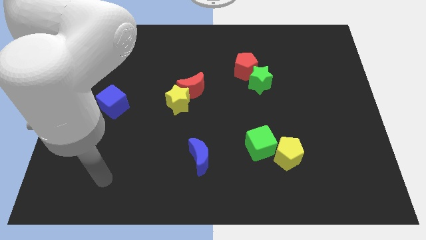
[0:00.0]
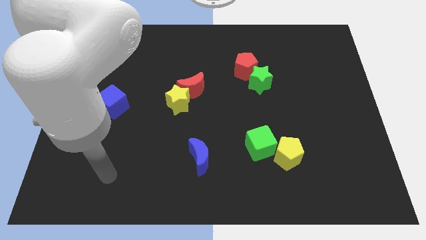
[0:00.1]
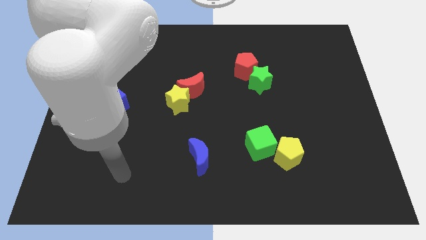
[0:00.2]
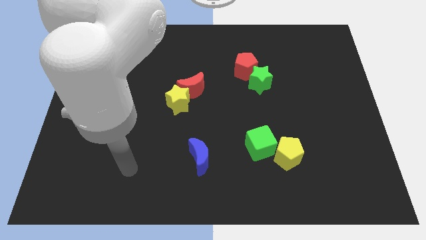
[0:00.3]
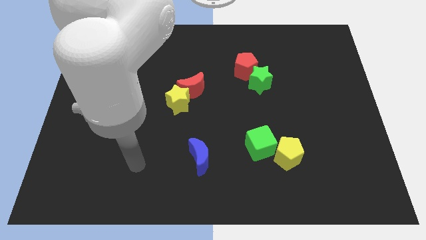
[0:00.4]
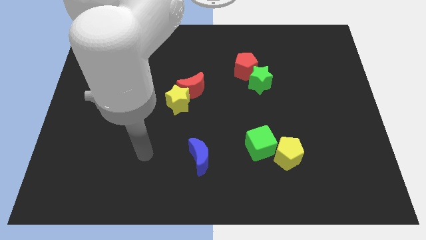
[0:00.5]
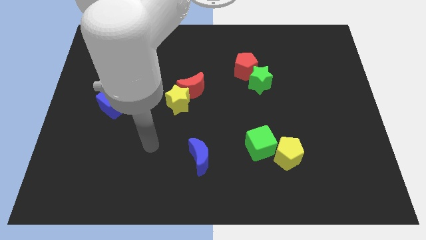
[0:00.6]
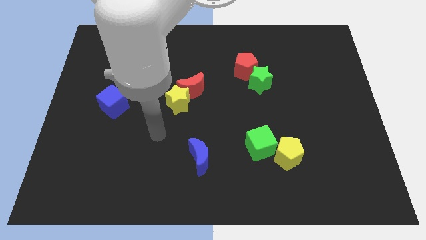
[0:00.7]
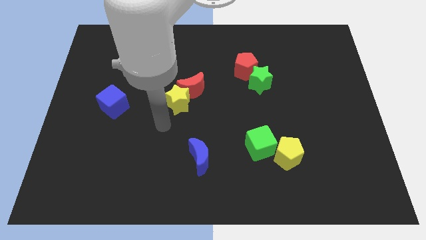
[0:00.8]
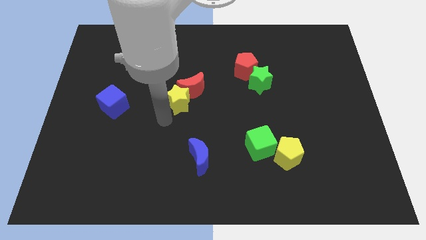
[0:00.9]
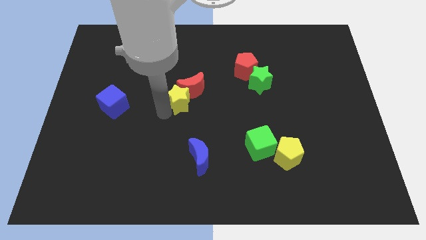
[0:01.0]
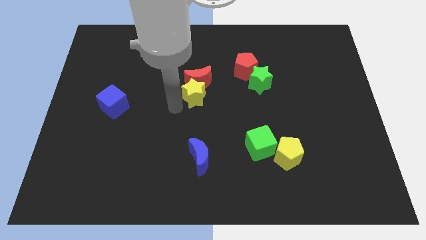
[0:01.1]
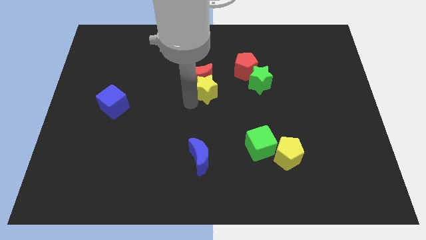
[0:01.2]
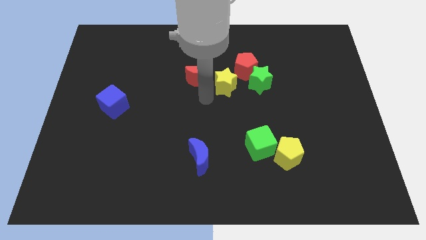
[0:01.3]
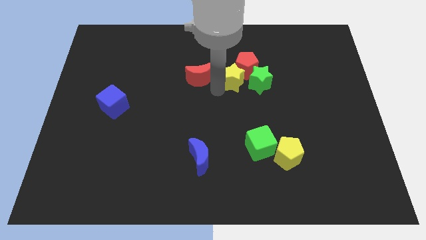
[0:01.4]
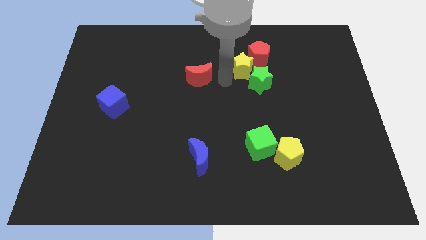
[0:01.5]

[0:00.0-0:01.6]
move the red moon away from the yellow star

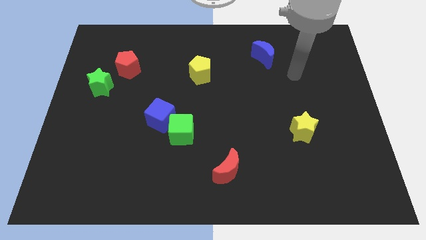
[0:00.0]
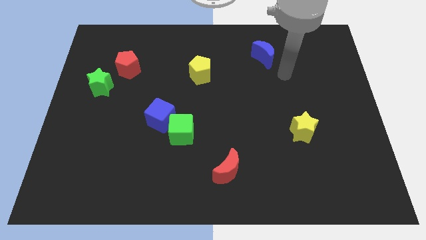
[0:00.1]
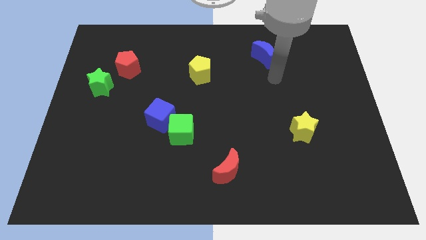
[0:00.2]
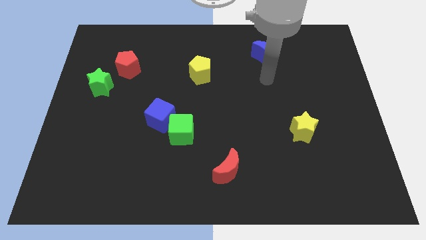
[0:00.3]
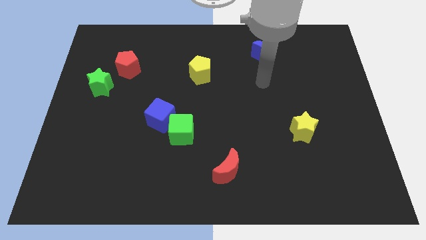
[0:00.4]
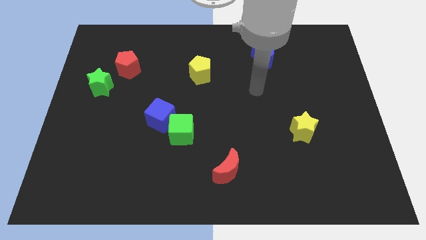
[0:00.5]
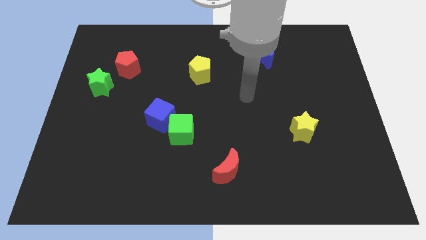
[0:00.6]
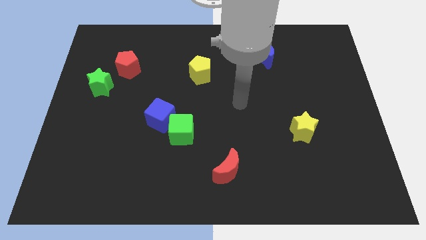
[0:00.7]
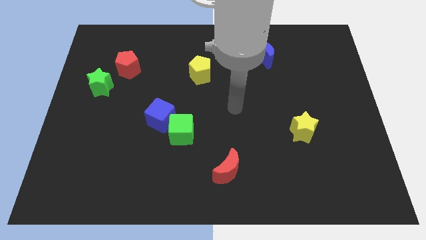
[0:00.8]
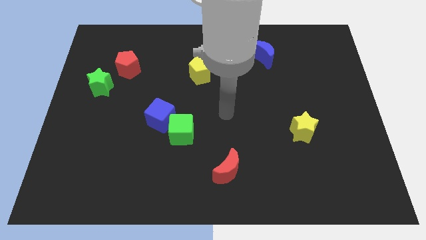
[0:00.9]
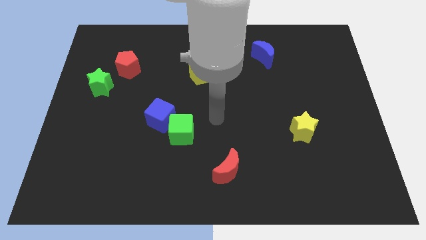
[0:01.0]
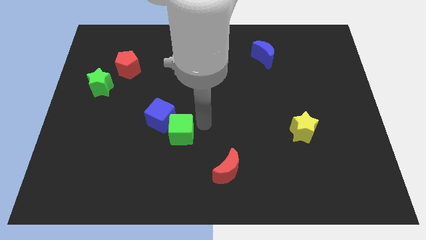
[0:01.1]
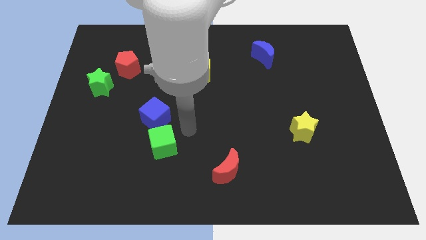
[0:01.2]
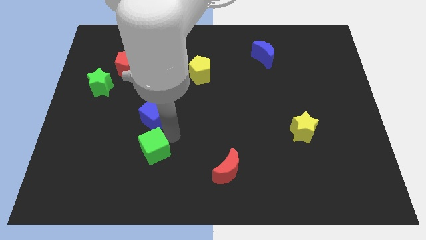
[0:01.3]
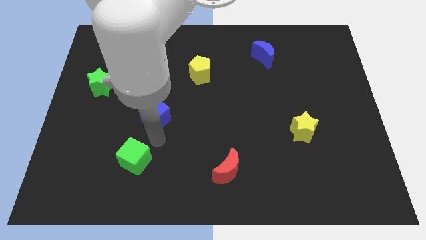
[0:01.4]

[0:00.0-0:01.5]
pull the blue cube apart from the green cube

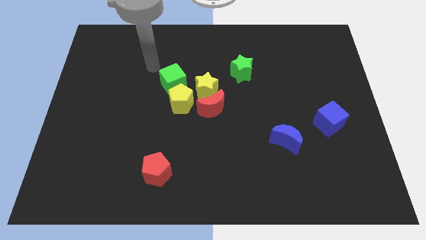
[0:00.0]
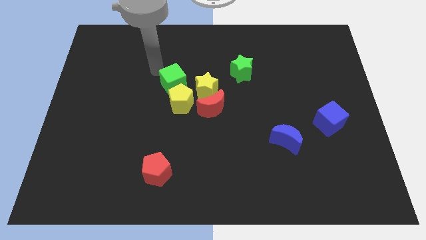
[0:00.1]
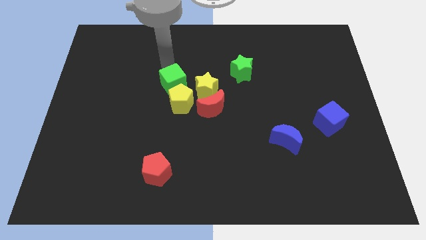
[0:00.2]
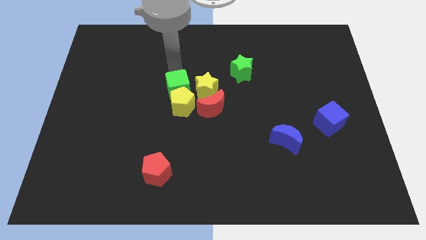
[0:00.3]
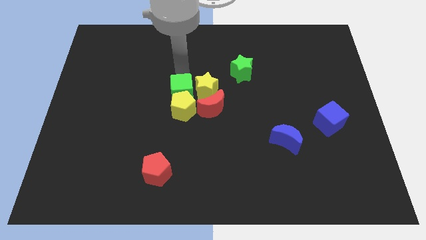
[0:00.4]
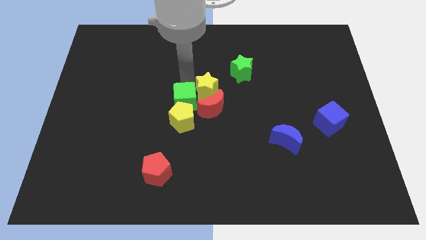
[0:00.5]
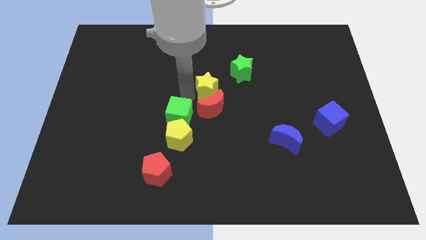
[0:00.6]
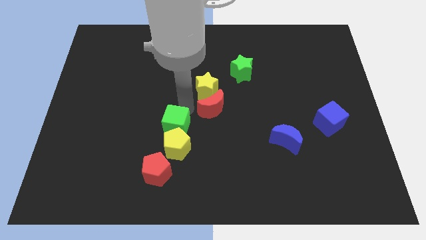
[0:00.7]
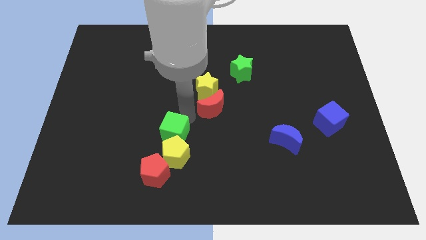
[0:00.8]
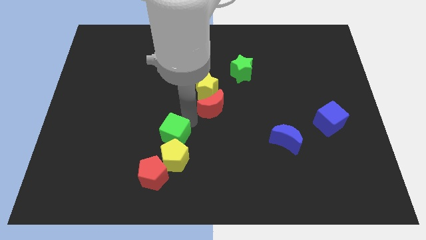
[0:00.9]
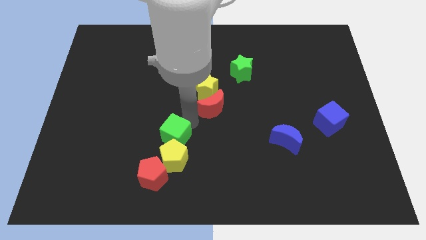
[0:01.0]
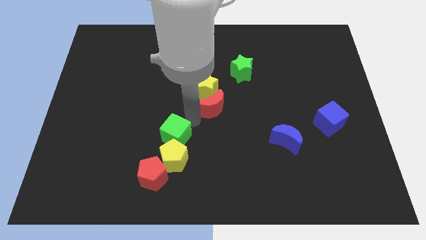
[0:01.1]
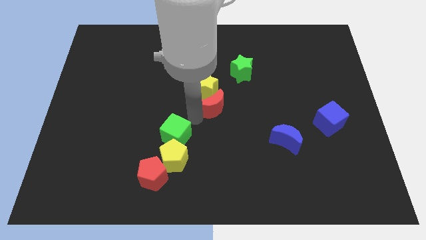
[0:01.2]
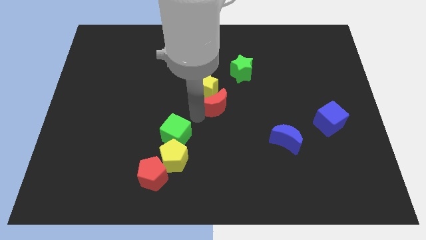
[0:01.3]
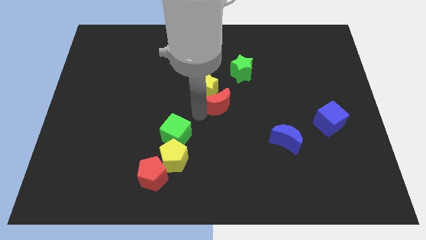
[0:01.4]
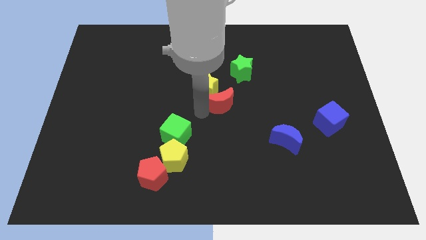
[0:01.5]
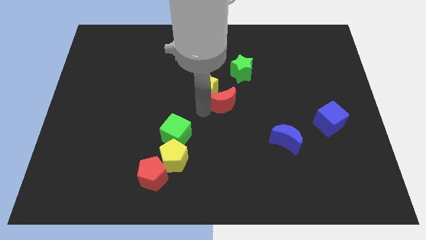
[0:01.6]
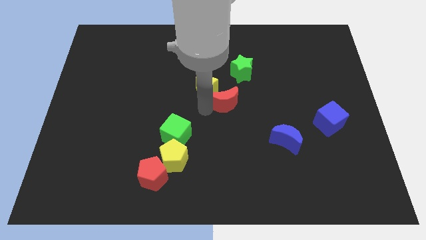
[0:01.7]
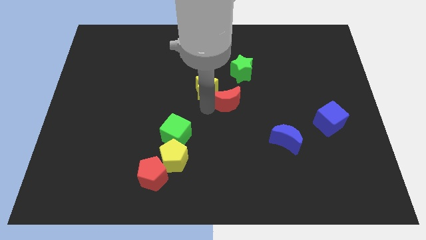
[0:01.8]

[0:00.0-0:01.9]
pull the red moon apart from the yellow star and yellow pentagon

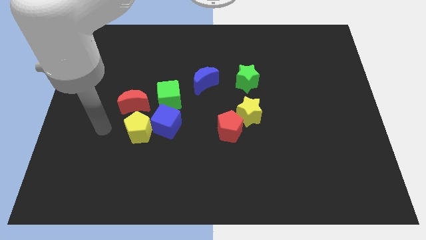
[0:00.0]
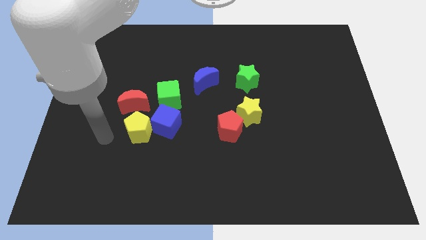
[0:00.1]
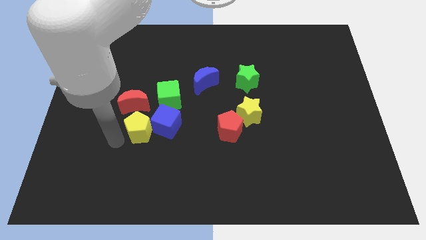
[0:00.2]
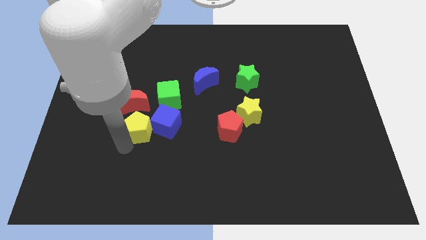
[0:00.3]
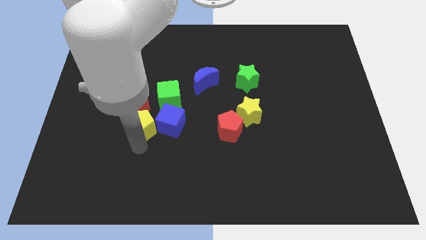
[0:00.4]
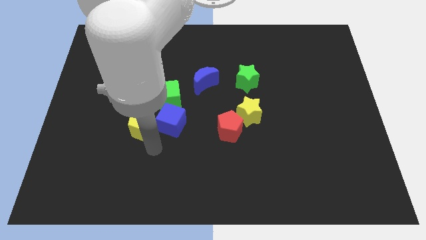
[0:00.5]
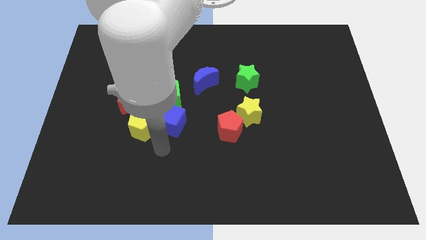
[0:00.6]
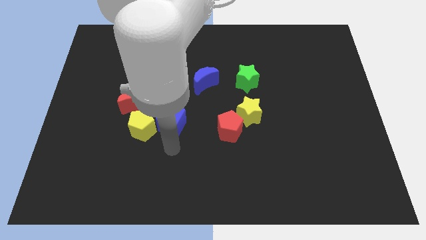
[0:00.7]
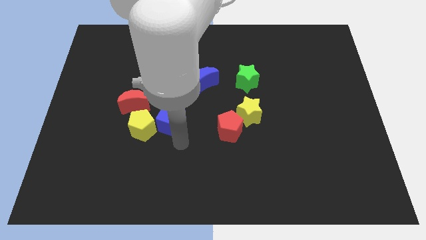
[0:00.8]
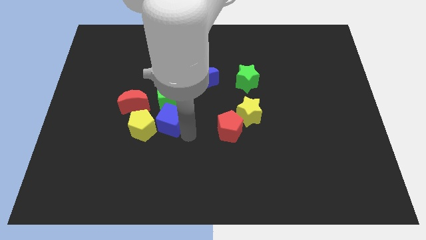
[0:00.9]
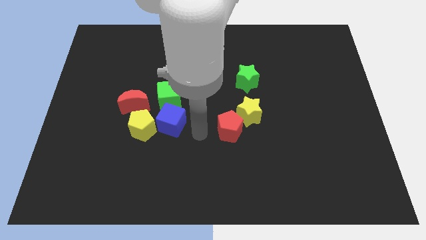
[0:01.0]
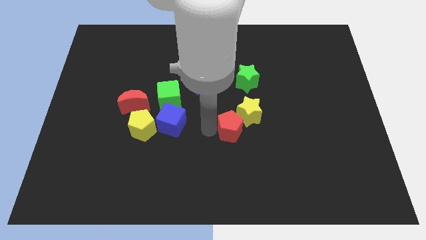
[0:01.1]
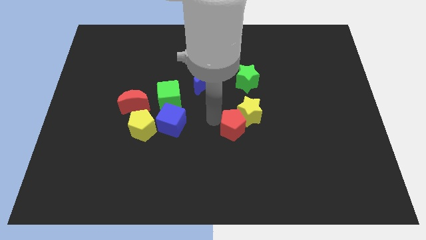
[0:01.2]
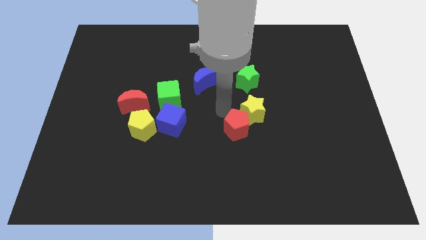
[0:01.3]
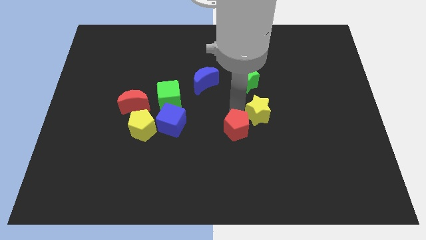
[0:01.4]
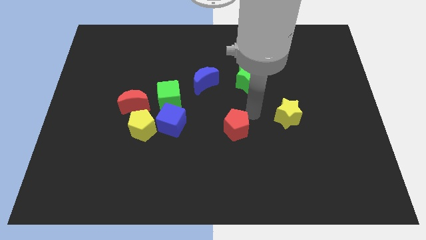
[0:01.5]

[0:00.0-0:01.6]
move the red pentagon away from the yellow star

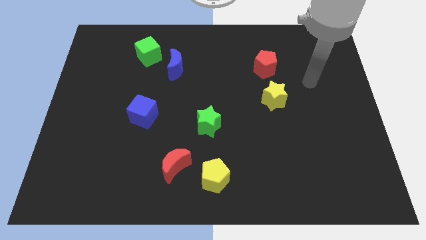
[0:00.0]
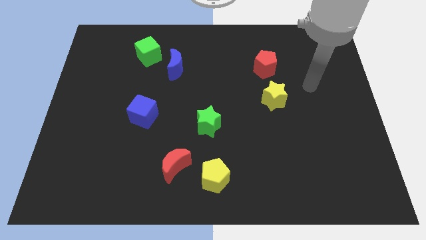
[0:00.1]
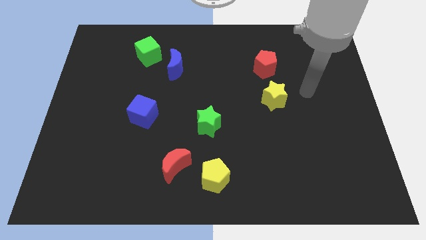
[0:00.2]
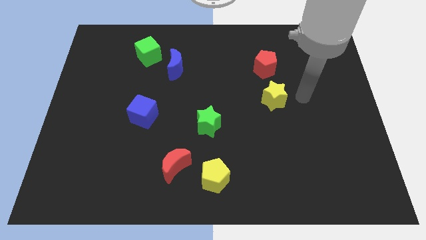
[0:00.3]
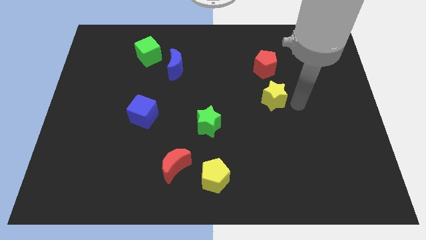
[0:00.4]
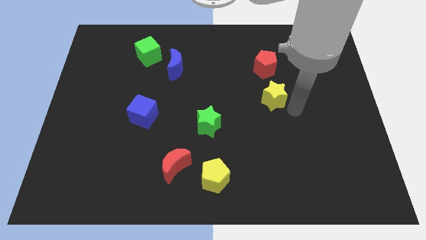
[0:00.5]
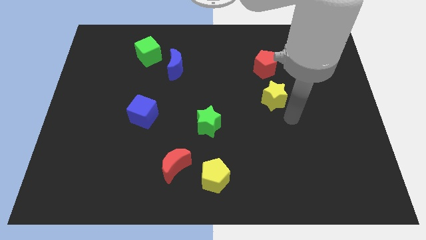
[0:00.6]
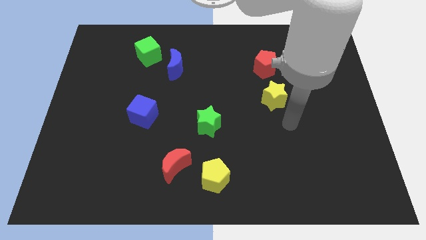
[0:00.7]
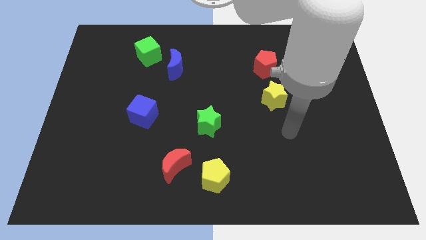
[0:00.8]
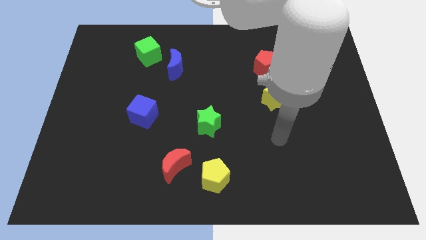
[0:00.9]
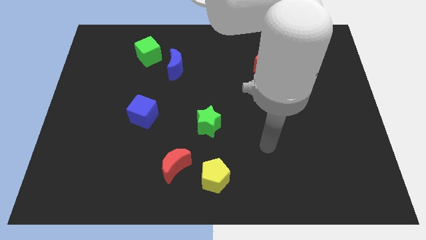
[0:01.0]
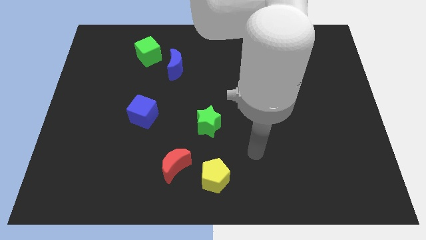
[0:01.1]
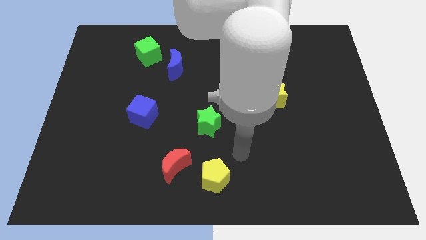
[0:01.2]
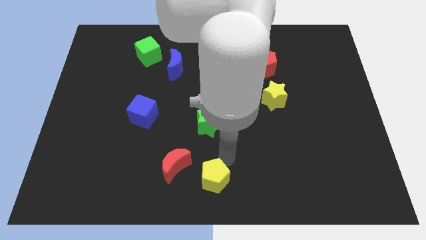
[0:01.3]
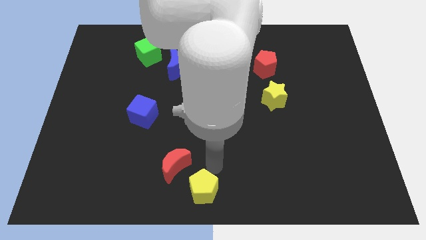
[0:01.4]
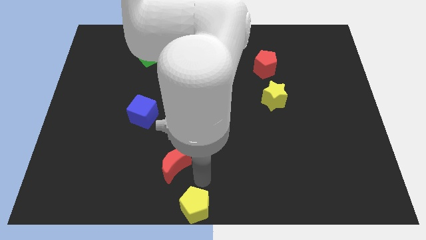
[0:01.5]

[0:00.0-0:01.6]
separate the red moon from the yellow pentagon

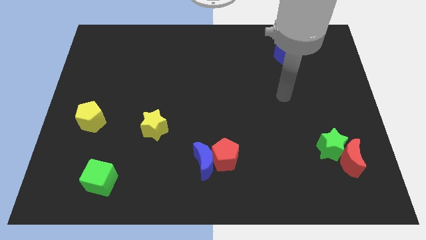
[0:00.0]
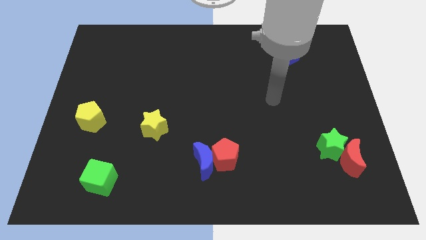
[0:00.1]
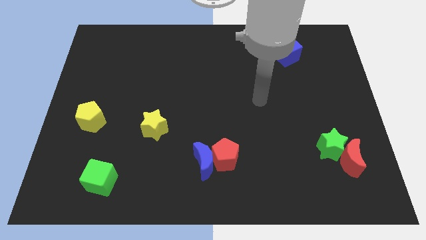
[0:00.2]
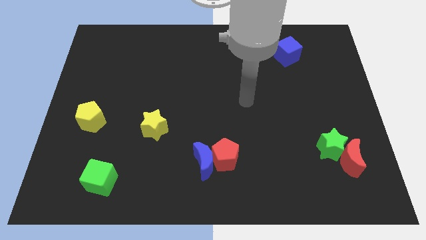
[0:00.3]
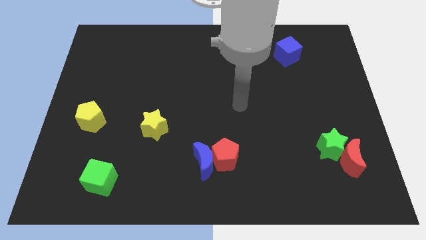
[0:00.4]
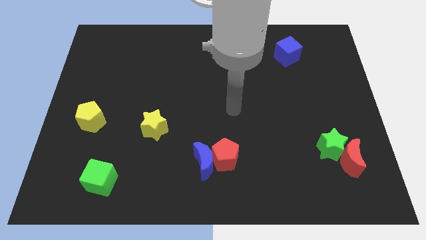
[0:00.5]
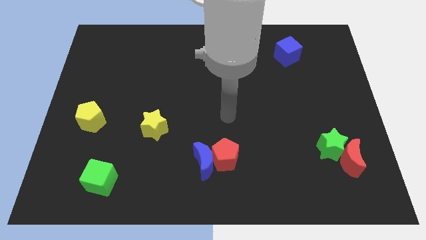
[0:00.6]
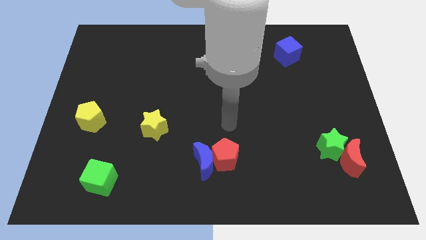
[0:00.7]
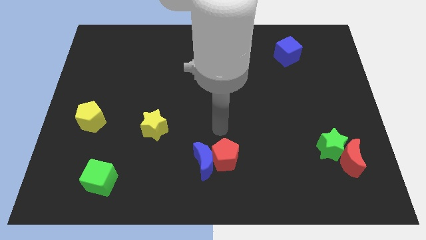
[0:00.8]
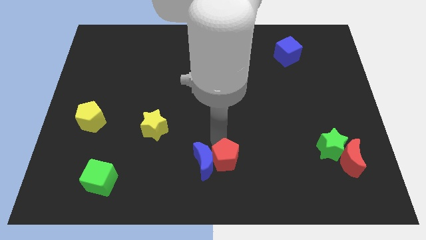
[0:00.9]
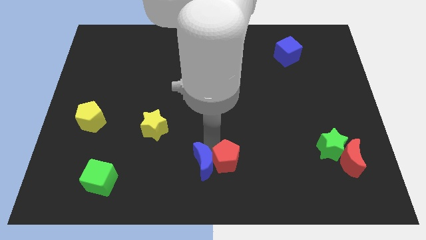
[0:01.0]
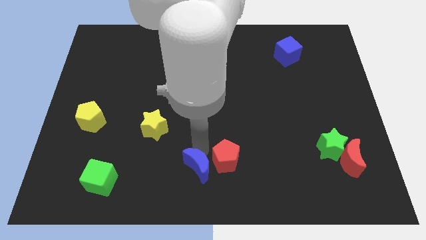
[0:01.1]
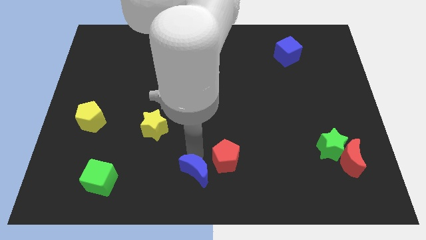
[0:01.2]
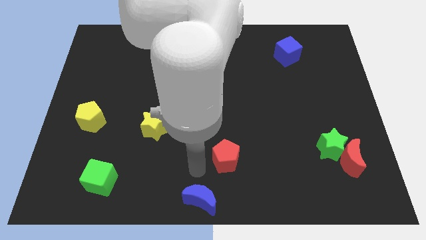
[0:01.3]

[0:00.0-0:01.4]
pull the red pentagon apart from the blue moon
